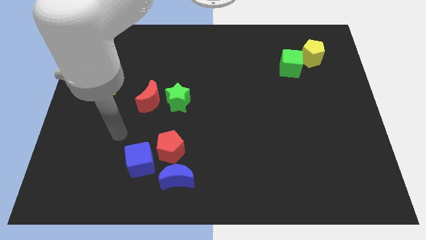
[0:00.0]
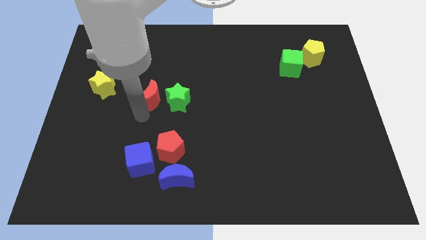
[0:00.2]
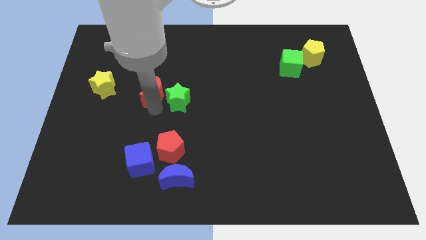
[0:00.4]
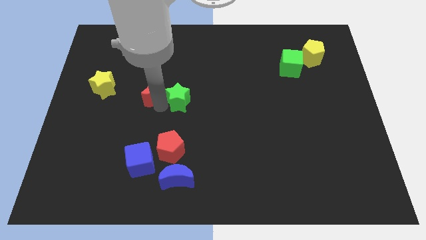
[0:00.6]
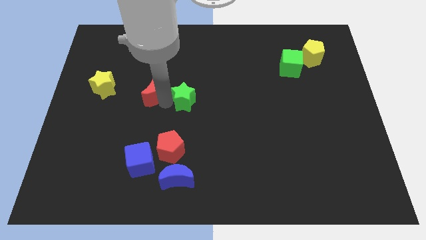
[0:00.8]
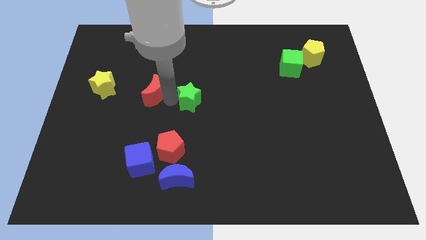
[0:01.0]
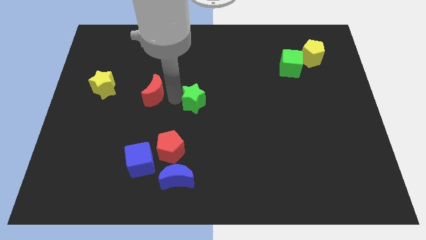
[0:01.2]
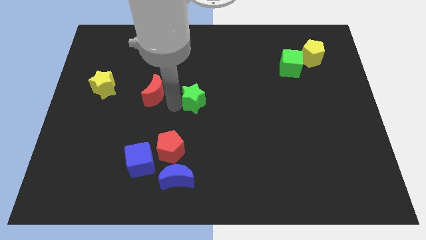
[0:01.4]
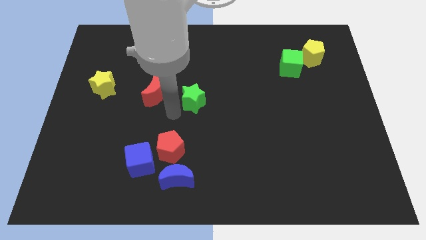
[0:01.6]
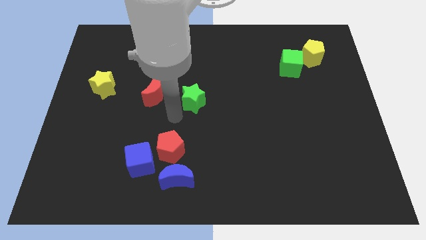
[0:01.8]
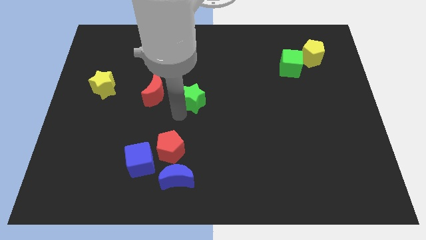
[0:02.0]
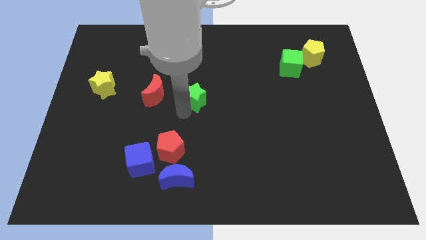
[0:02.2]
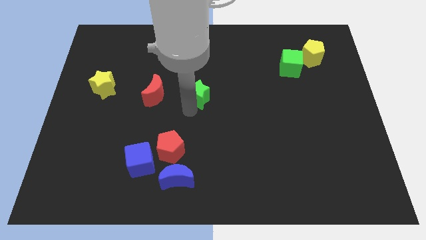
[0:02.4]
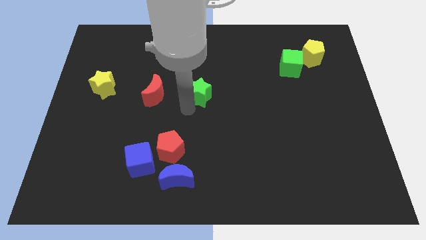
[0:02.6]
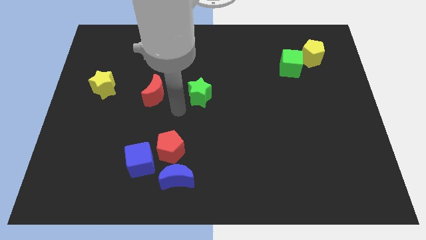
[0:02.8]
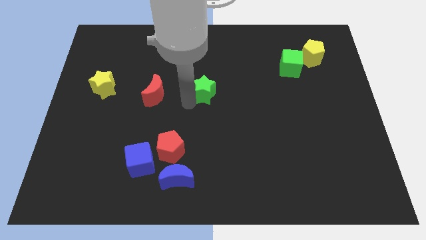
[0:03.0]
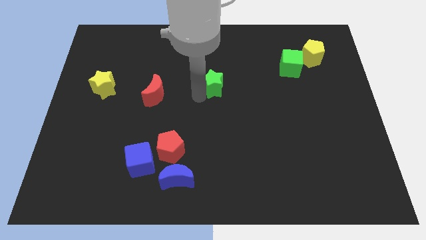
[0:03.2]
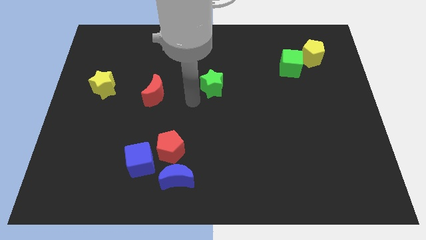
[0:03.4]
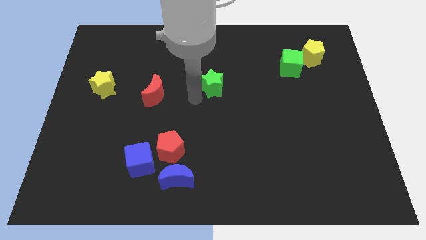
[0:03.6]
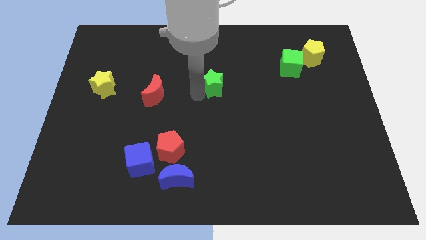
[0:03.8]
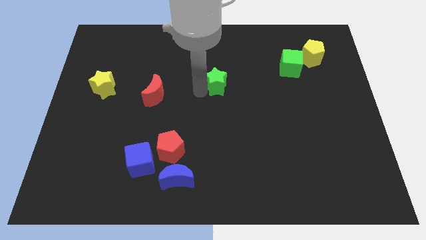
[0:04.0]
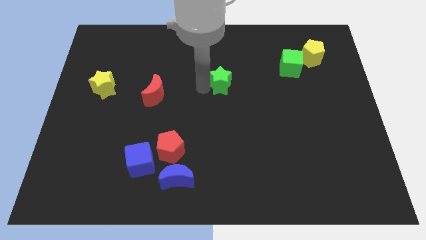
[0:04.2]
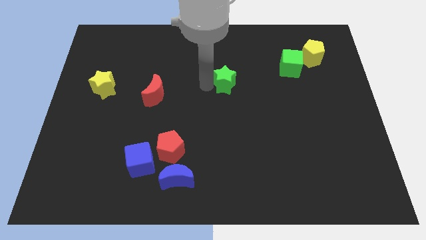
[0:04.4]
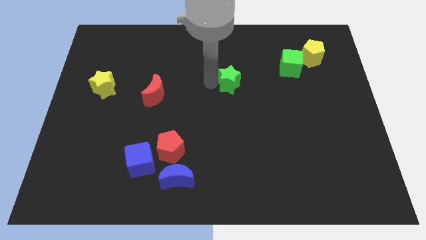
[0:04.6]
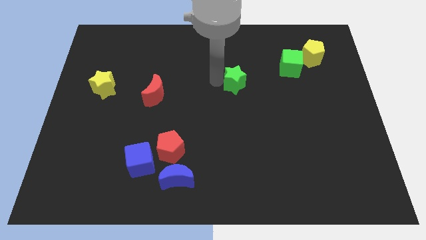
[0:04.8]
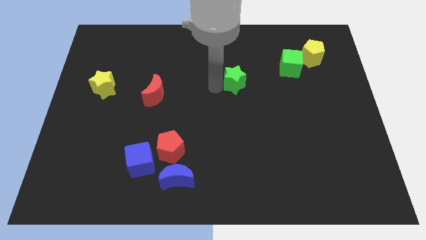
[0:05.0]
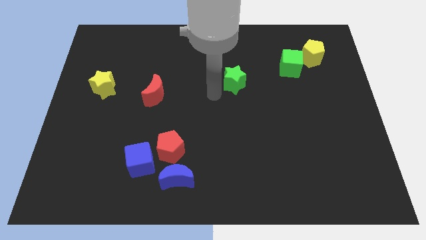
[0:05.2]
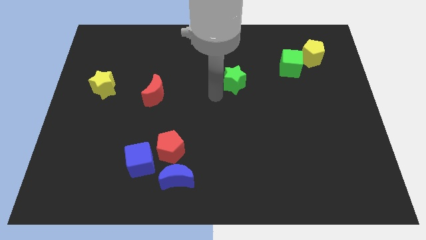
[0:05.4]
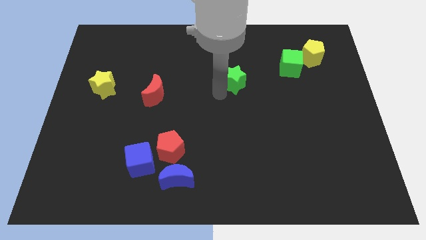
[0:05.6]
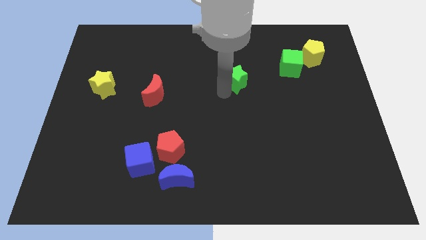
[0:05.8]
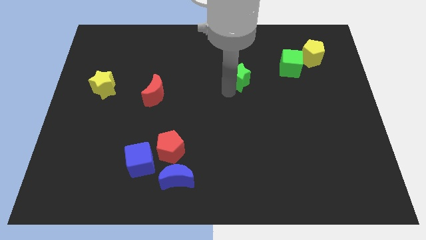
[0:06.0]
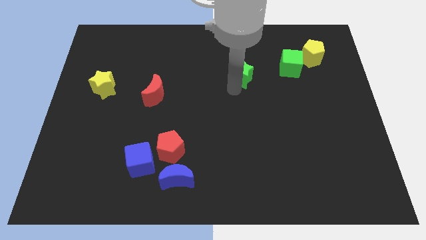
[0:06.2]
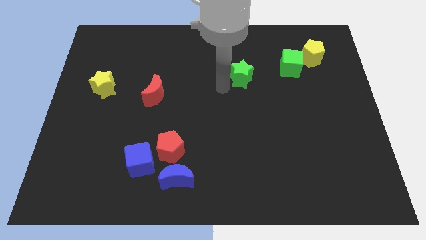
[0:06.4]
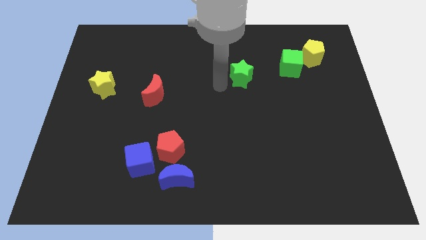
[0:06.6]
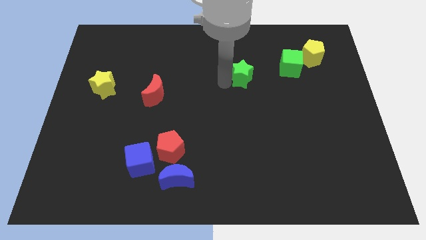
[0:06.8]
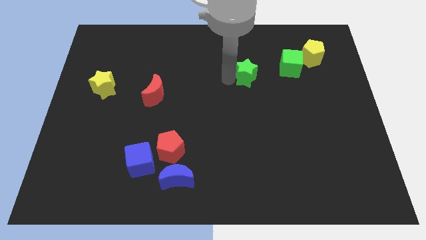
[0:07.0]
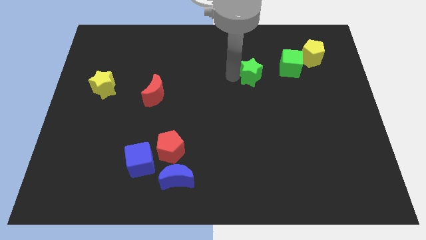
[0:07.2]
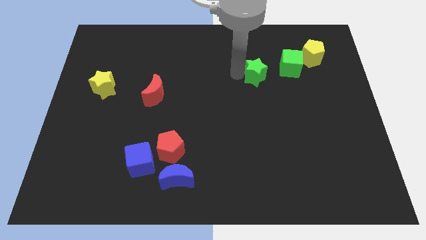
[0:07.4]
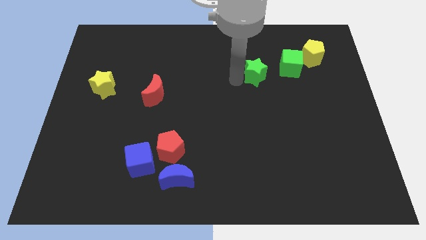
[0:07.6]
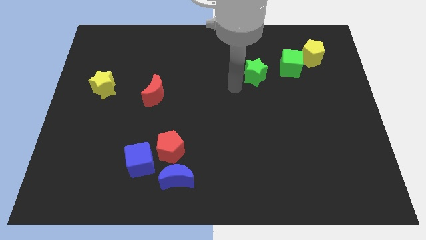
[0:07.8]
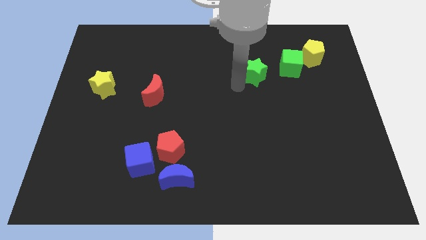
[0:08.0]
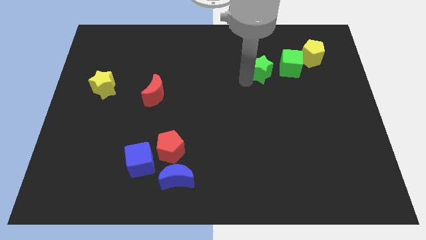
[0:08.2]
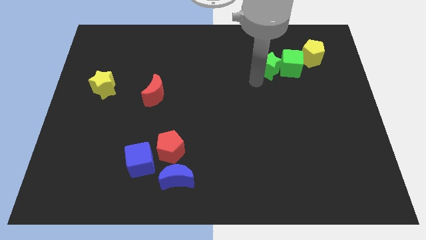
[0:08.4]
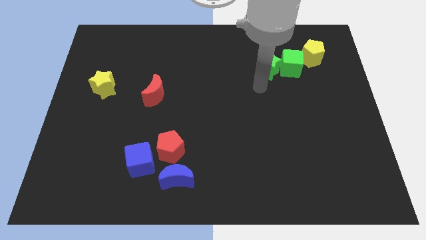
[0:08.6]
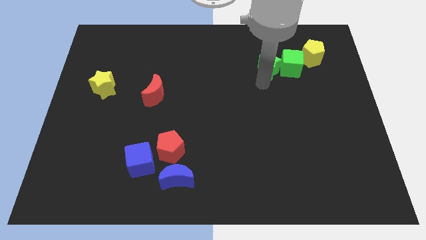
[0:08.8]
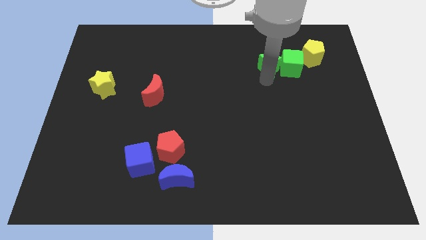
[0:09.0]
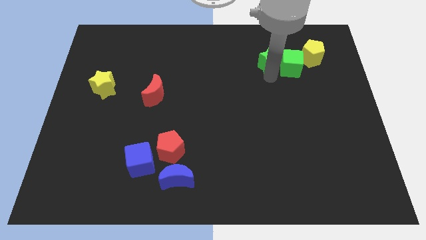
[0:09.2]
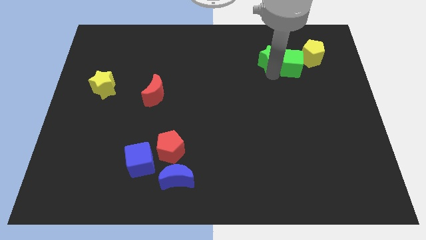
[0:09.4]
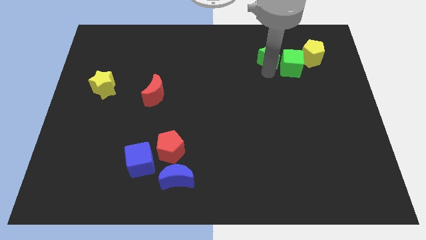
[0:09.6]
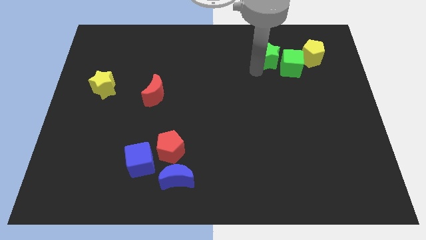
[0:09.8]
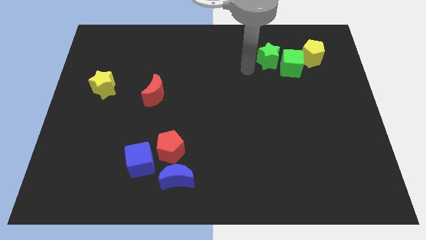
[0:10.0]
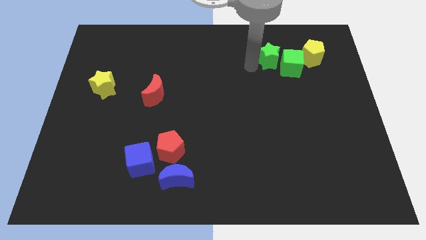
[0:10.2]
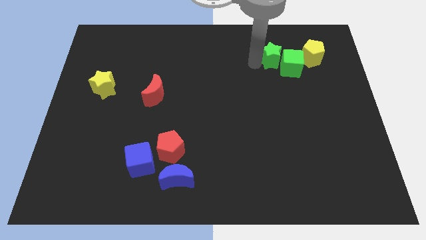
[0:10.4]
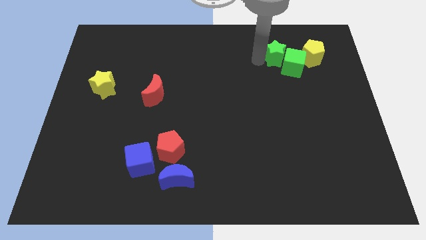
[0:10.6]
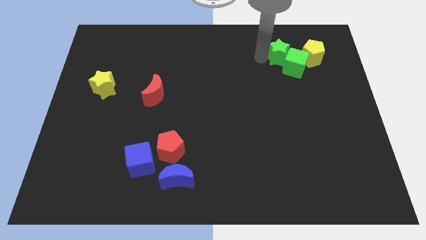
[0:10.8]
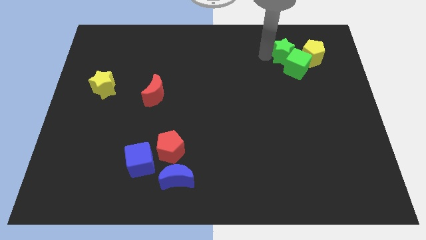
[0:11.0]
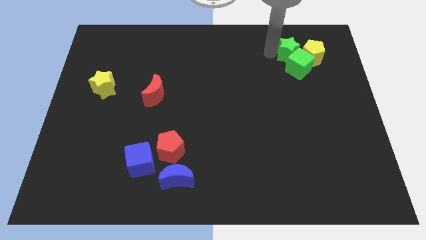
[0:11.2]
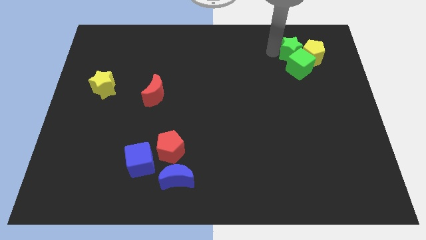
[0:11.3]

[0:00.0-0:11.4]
slide the green star close to the yellow pentagon
